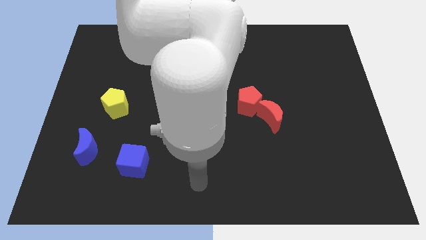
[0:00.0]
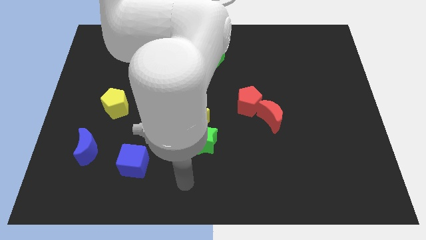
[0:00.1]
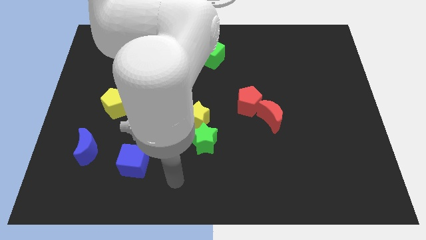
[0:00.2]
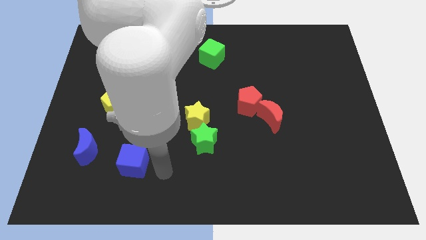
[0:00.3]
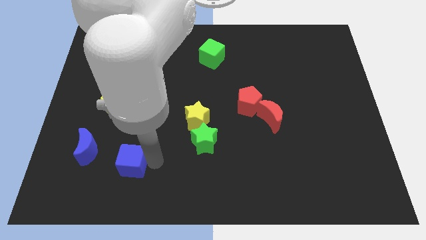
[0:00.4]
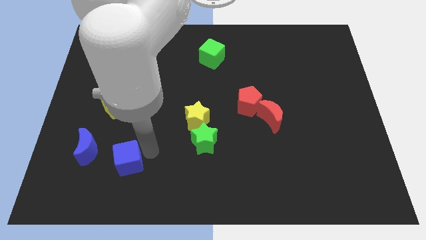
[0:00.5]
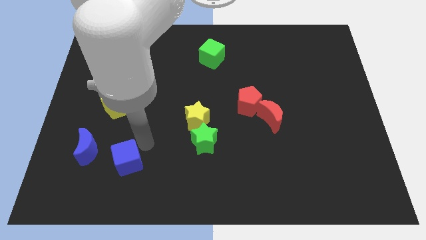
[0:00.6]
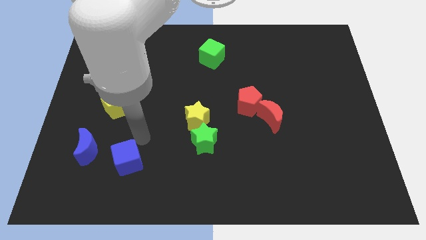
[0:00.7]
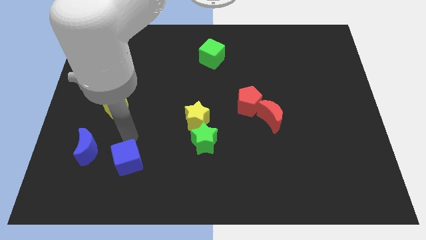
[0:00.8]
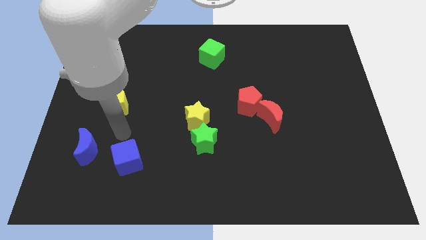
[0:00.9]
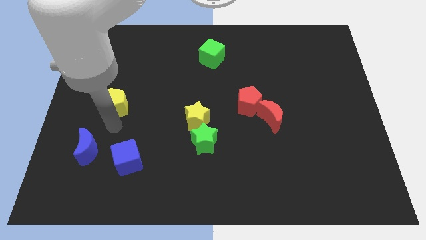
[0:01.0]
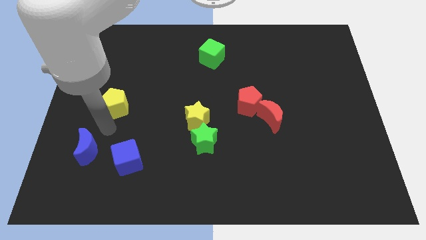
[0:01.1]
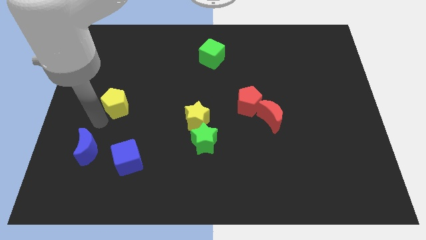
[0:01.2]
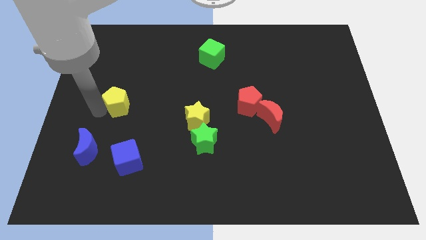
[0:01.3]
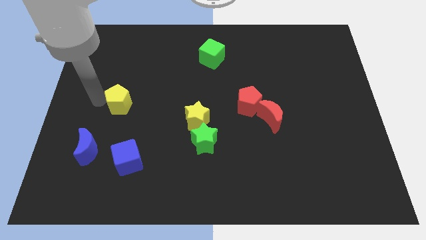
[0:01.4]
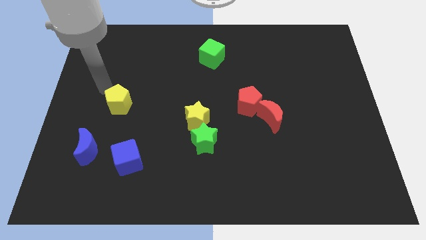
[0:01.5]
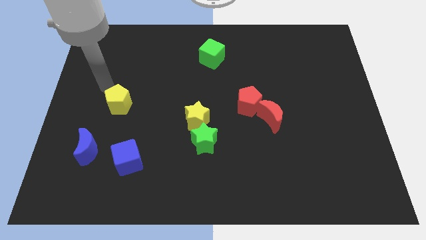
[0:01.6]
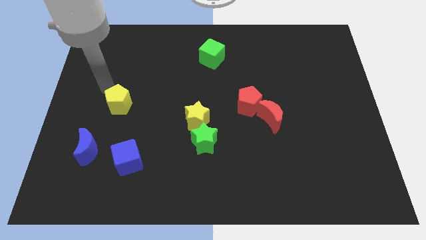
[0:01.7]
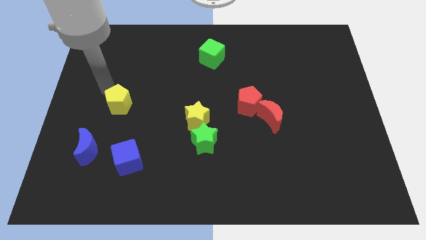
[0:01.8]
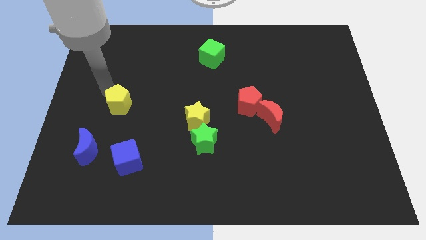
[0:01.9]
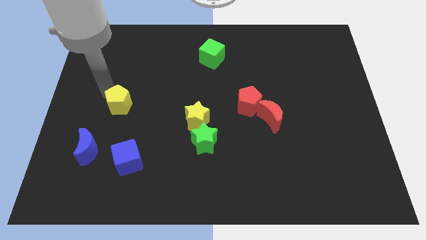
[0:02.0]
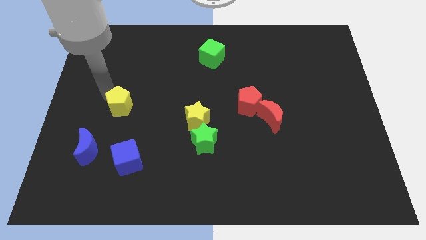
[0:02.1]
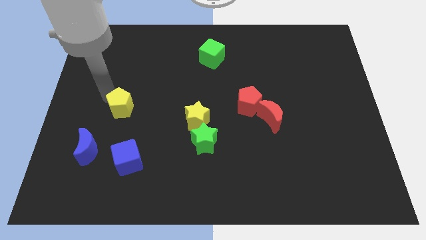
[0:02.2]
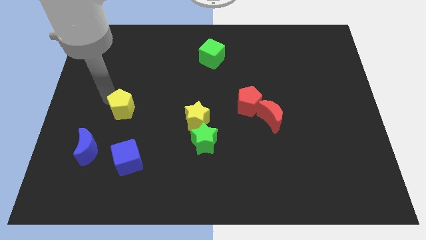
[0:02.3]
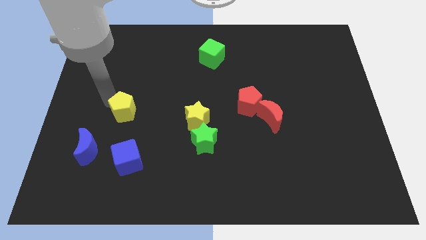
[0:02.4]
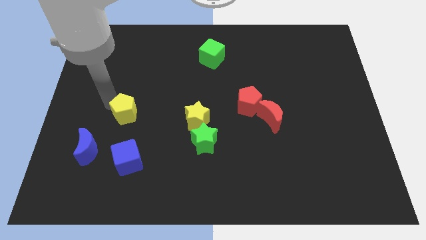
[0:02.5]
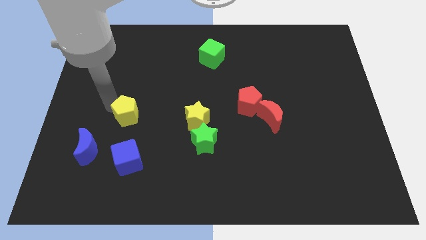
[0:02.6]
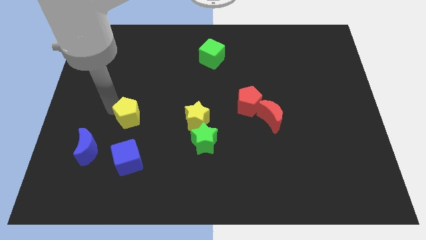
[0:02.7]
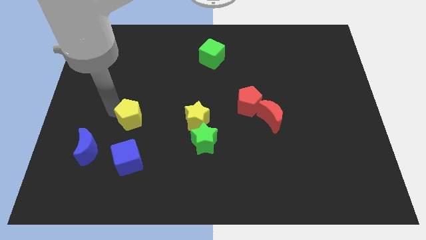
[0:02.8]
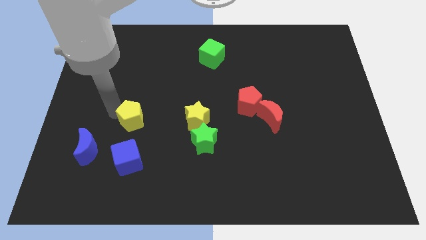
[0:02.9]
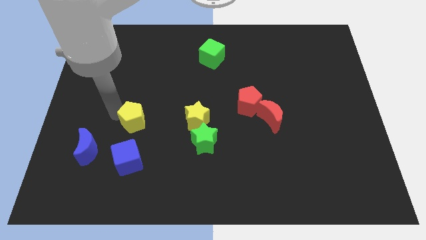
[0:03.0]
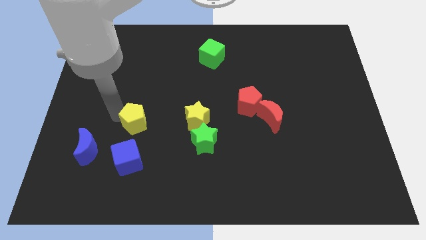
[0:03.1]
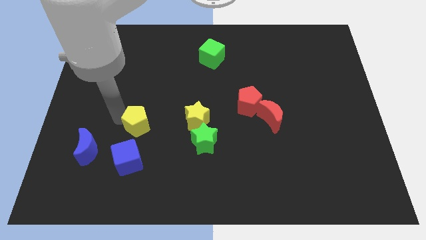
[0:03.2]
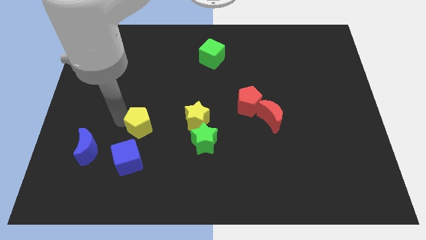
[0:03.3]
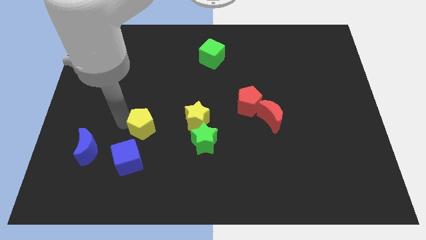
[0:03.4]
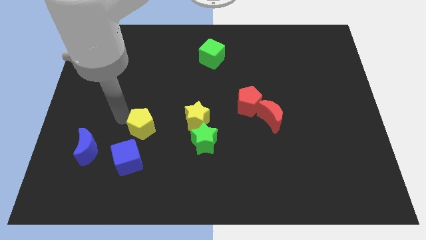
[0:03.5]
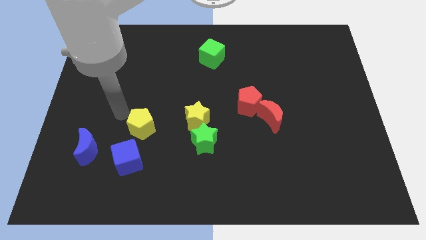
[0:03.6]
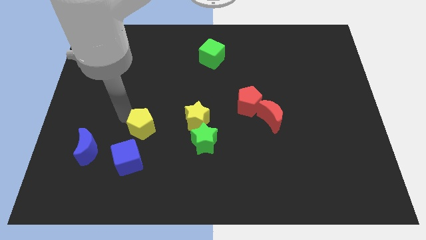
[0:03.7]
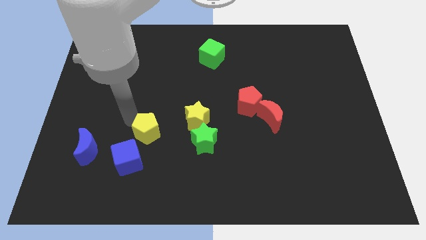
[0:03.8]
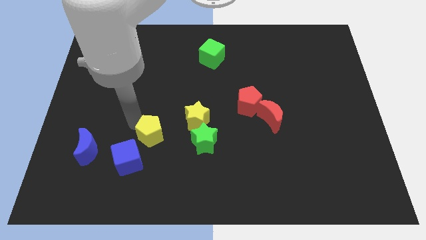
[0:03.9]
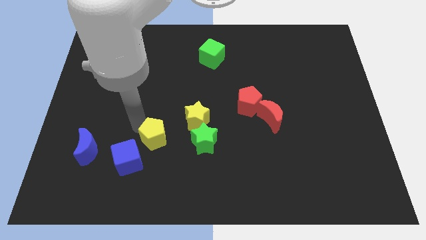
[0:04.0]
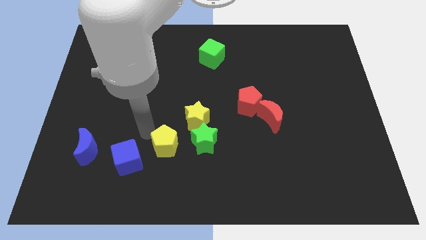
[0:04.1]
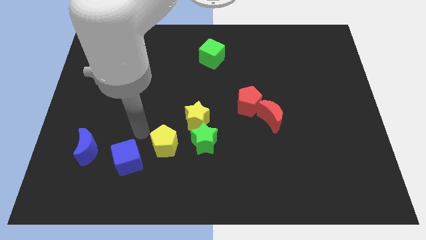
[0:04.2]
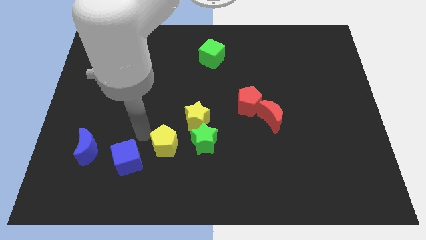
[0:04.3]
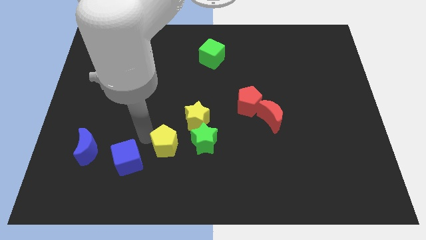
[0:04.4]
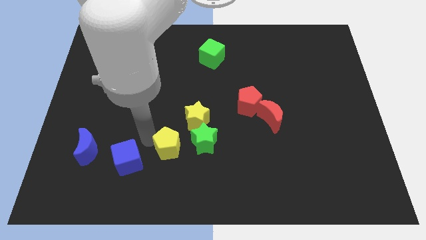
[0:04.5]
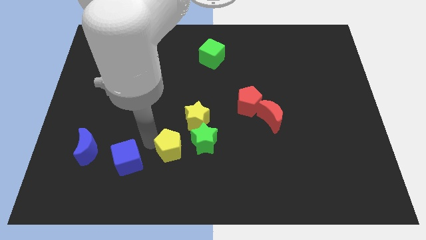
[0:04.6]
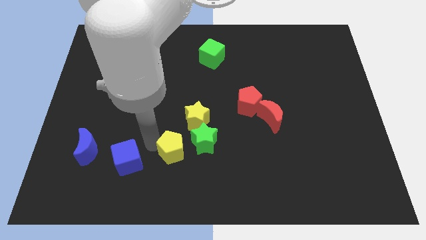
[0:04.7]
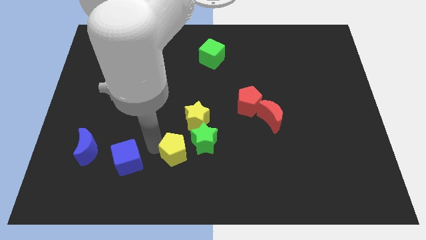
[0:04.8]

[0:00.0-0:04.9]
put the yellow pentagon to the bottom side of the yellow star

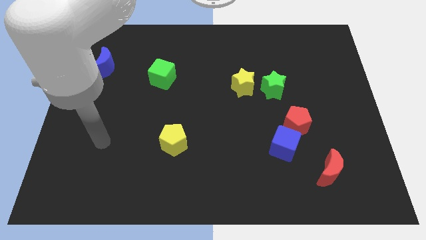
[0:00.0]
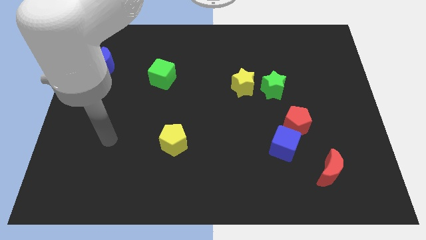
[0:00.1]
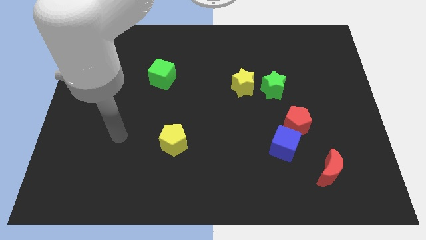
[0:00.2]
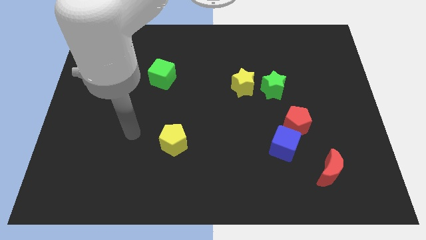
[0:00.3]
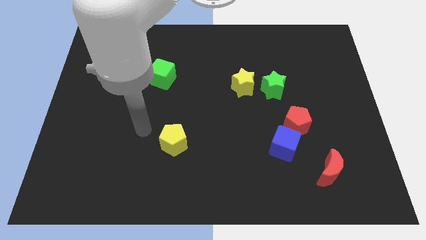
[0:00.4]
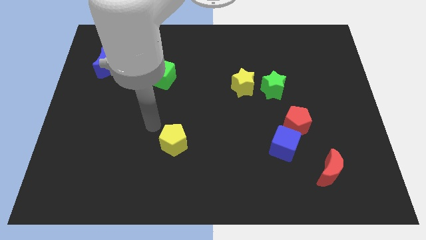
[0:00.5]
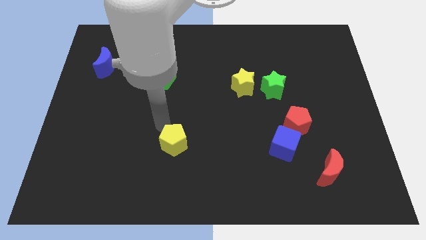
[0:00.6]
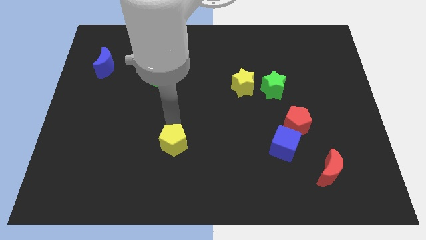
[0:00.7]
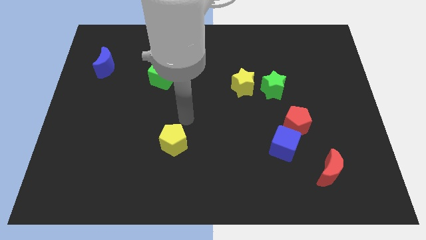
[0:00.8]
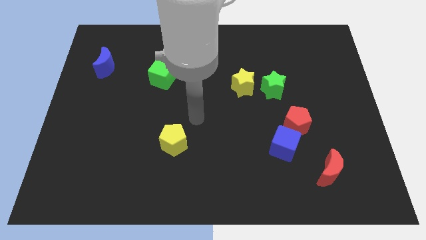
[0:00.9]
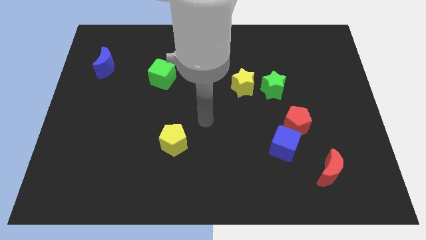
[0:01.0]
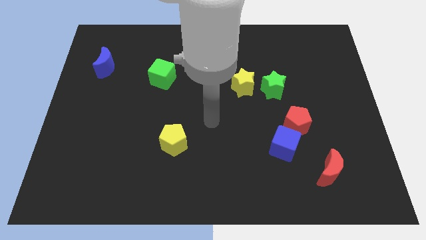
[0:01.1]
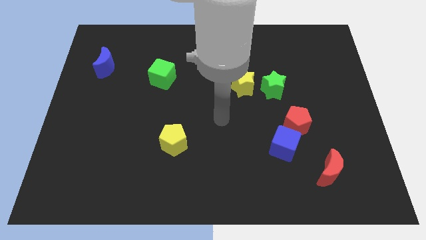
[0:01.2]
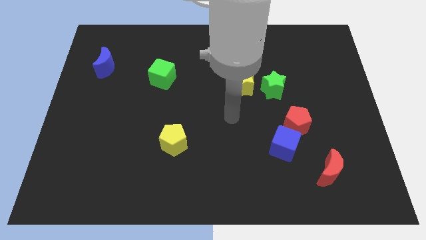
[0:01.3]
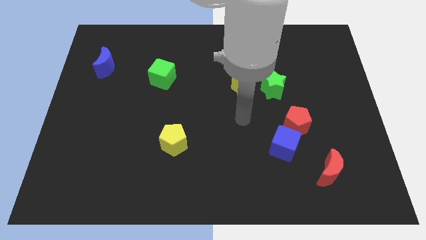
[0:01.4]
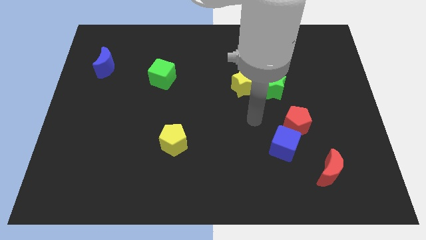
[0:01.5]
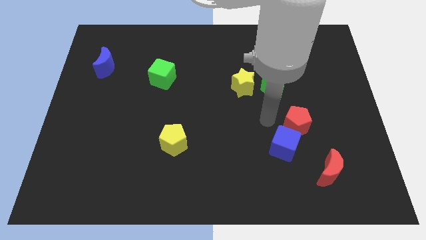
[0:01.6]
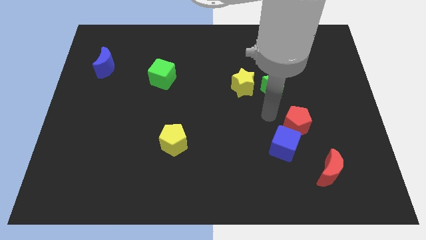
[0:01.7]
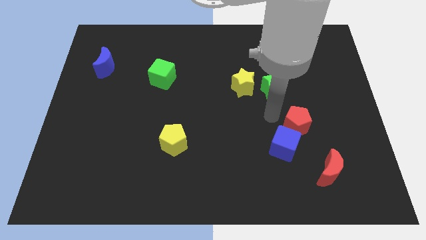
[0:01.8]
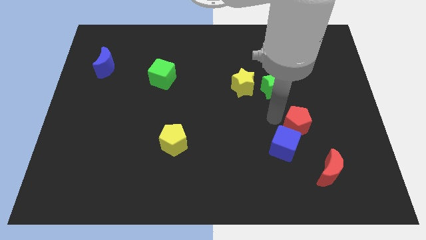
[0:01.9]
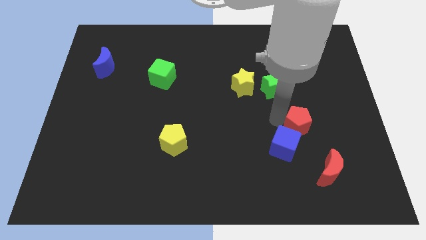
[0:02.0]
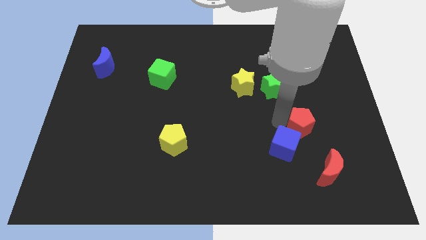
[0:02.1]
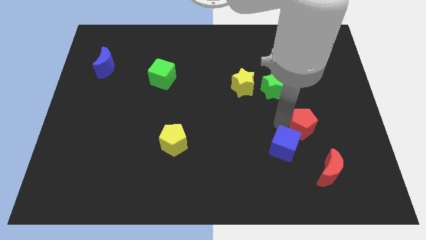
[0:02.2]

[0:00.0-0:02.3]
push the red pentagon just right of the blue cube
